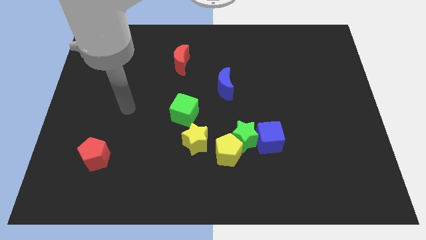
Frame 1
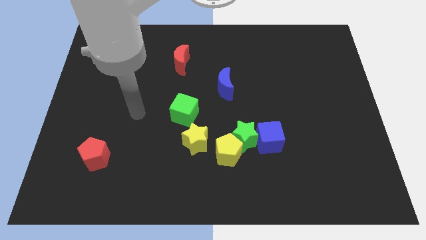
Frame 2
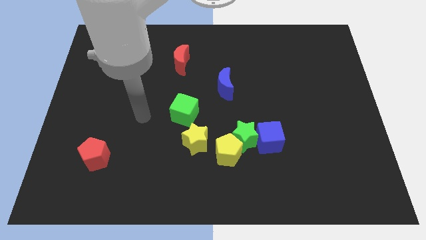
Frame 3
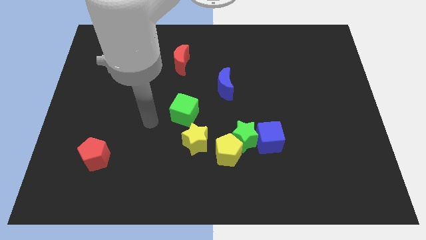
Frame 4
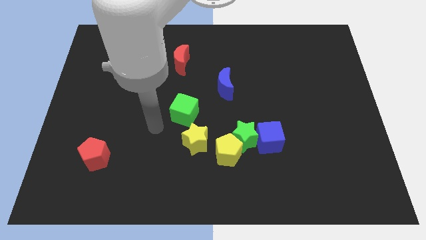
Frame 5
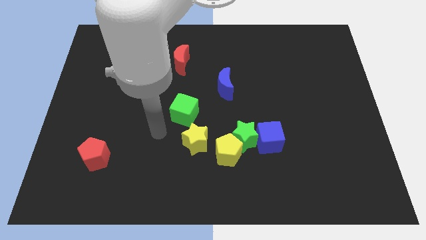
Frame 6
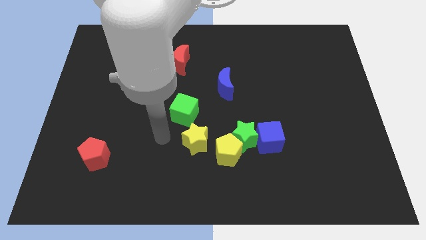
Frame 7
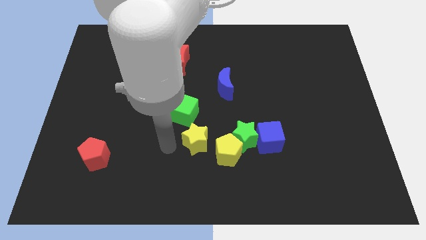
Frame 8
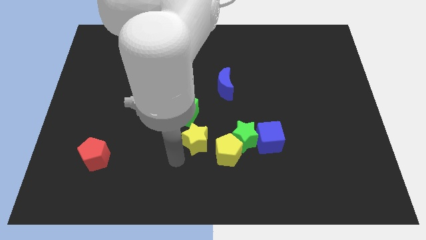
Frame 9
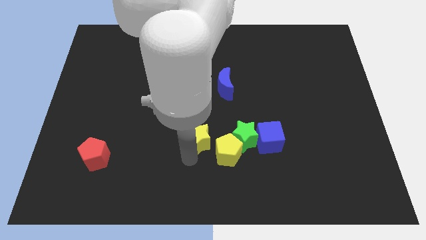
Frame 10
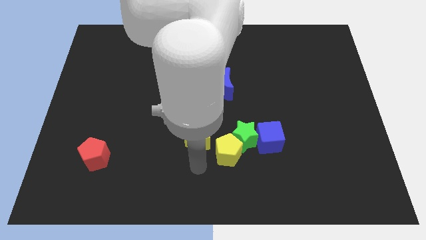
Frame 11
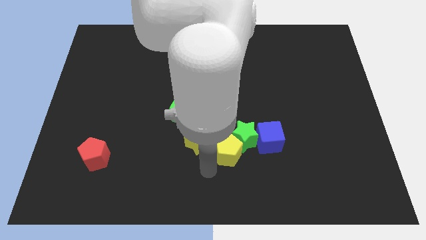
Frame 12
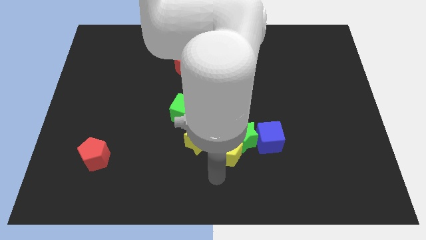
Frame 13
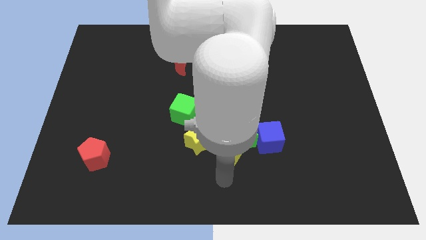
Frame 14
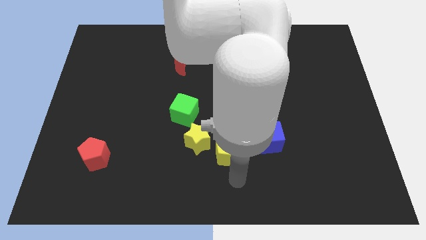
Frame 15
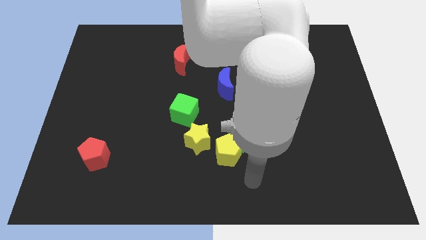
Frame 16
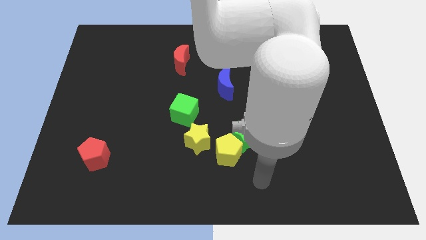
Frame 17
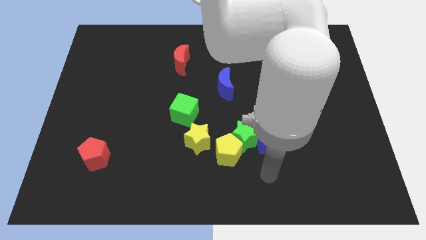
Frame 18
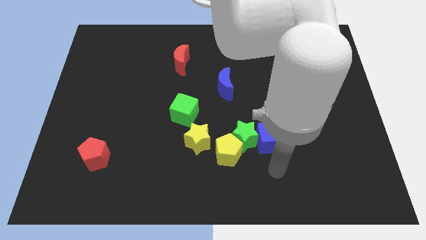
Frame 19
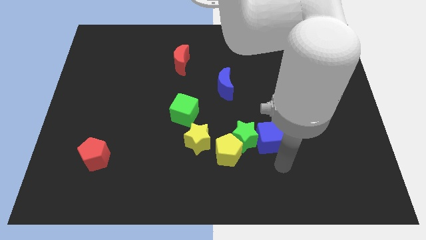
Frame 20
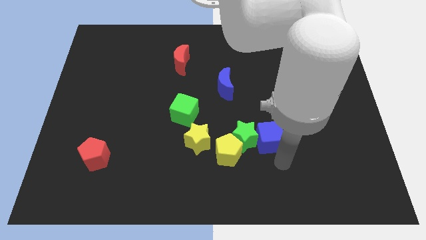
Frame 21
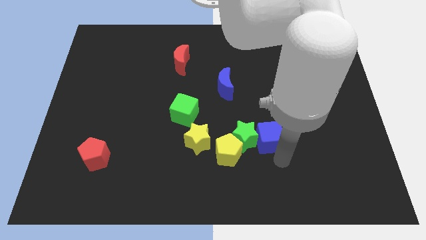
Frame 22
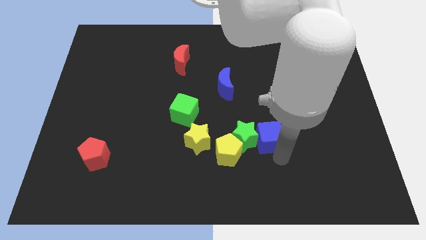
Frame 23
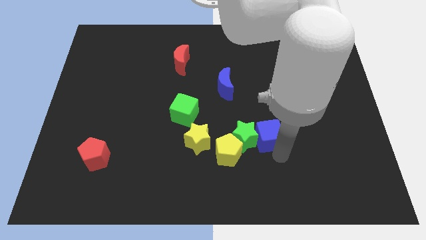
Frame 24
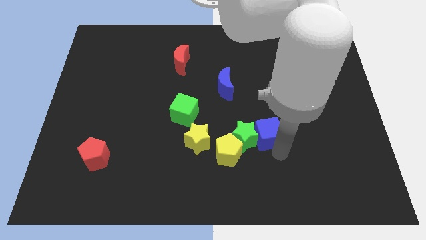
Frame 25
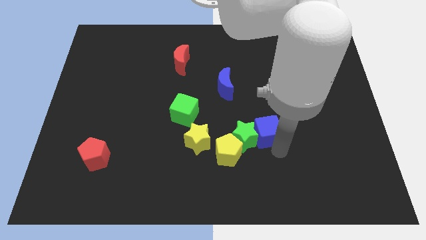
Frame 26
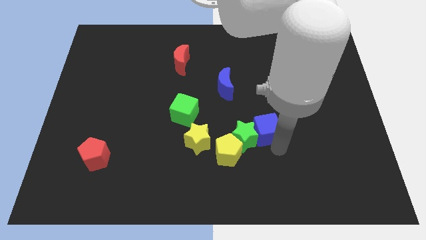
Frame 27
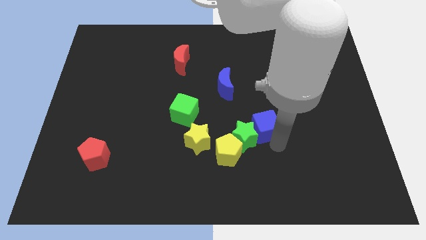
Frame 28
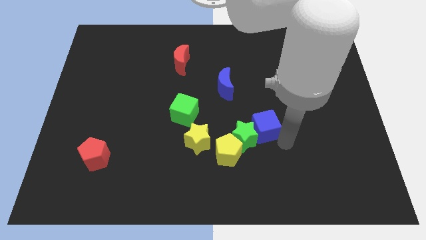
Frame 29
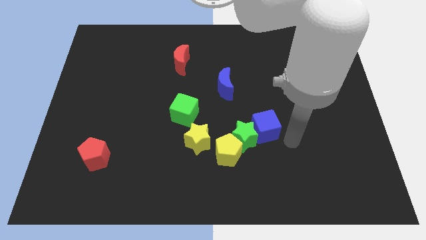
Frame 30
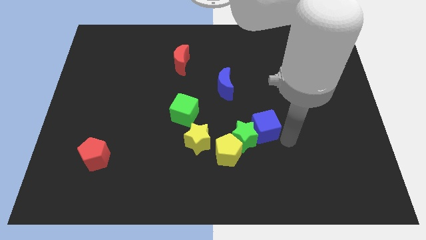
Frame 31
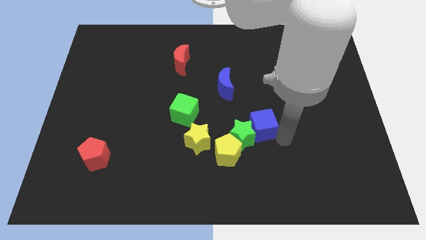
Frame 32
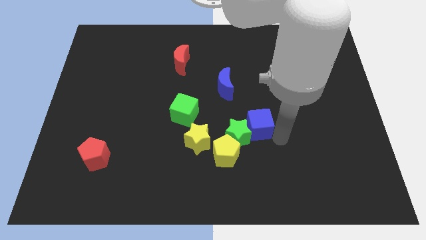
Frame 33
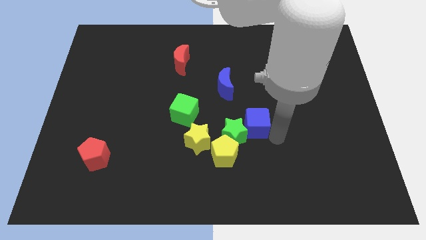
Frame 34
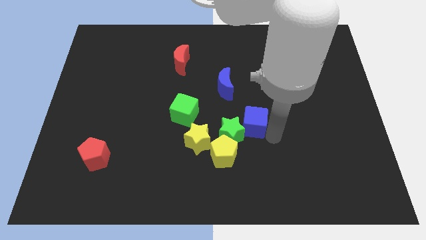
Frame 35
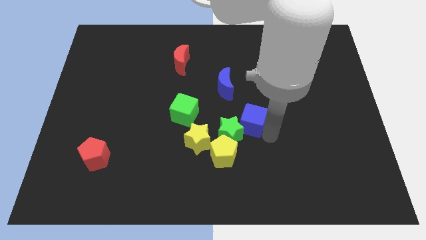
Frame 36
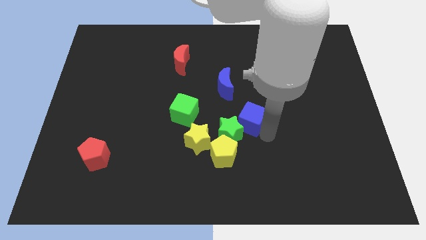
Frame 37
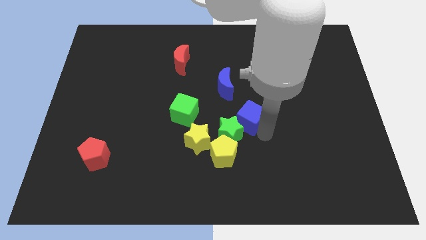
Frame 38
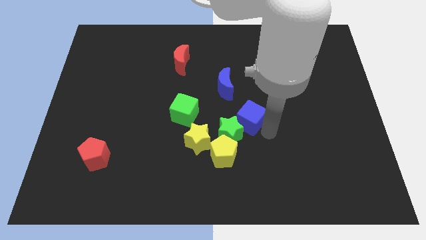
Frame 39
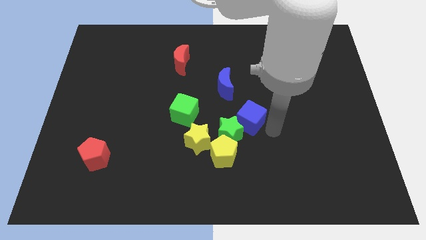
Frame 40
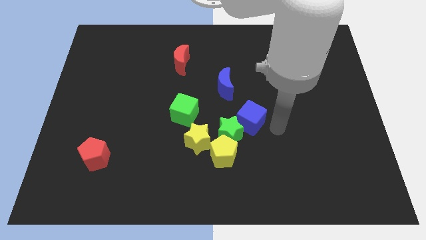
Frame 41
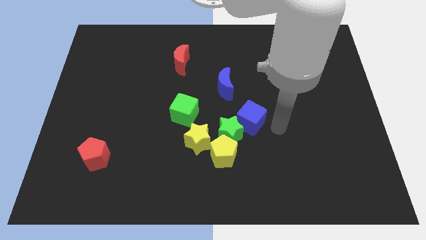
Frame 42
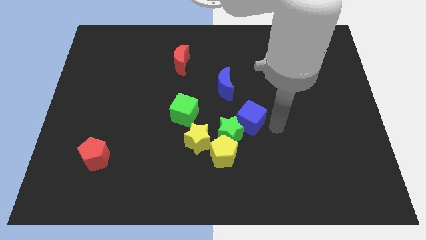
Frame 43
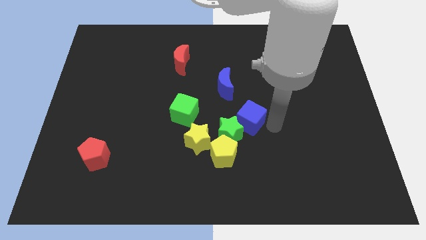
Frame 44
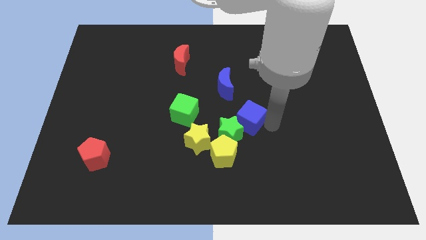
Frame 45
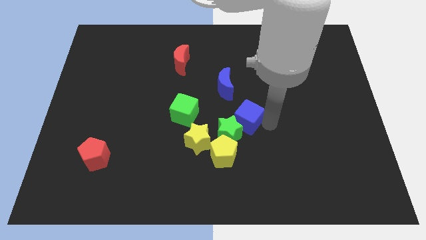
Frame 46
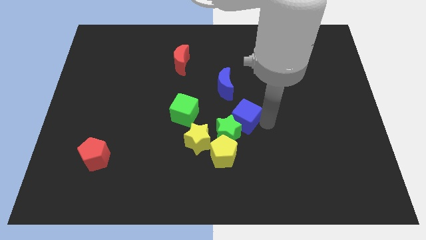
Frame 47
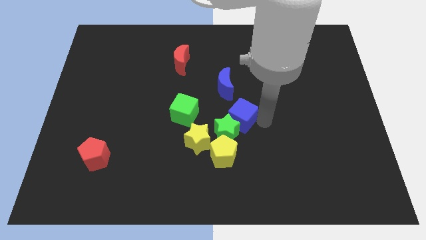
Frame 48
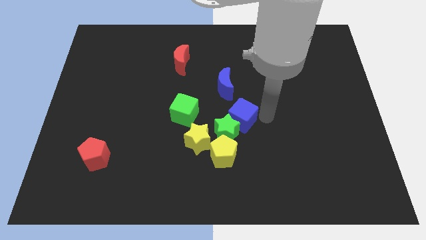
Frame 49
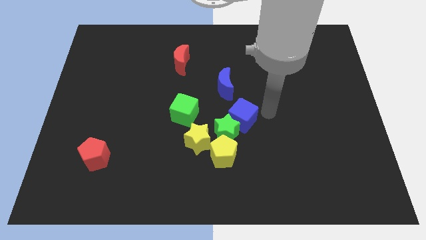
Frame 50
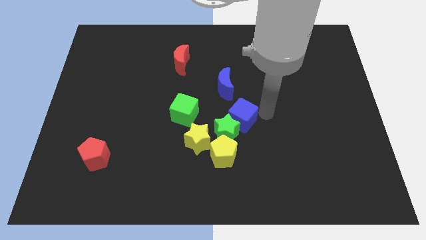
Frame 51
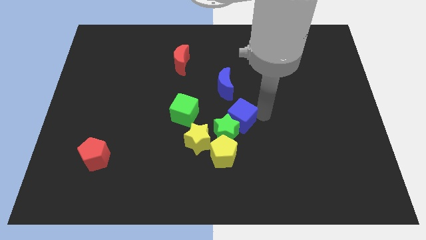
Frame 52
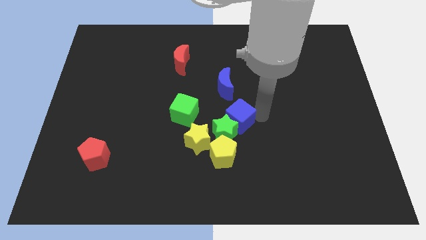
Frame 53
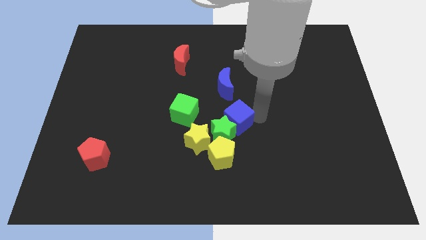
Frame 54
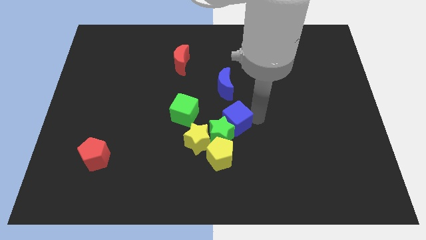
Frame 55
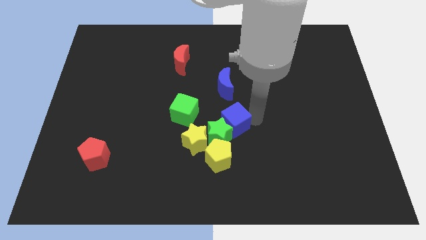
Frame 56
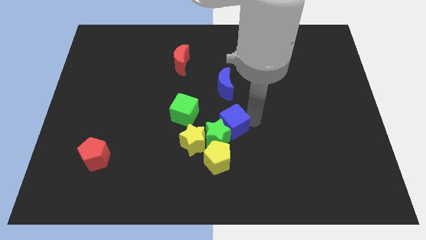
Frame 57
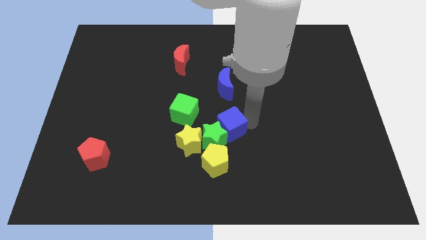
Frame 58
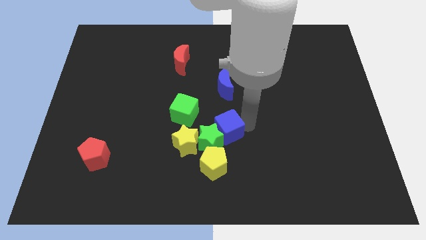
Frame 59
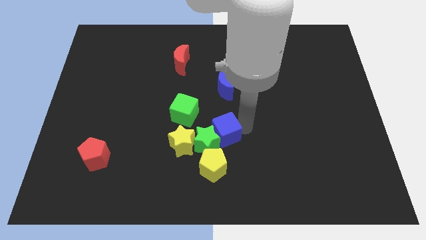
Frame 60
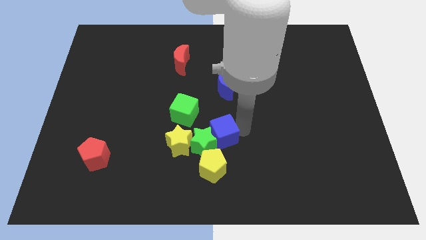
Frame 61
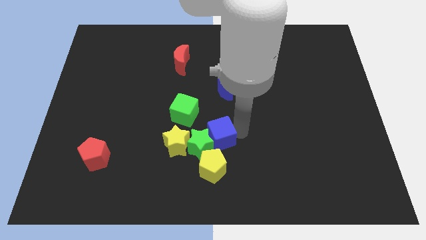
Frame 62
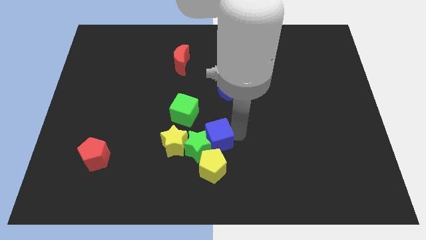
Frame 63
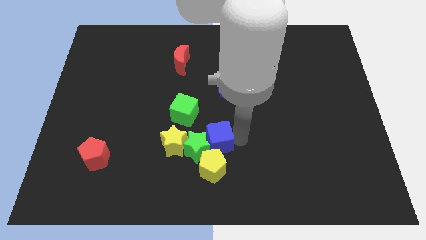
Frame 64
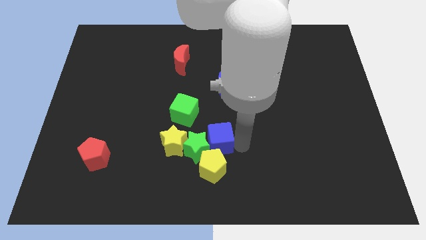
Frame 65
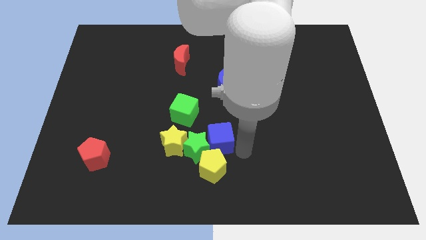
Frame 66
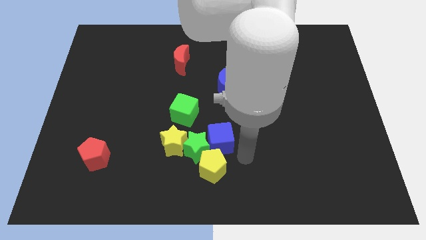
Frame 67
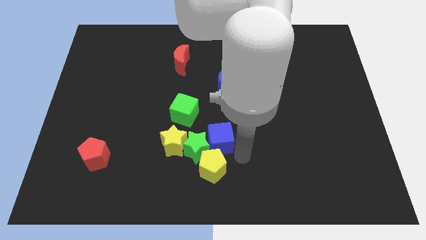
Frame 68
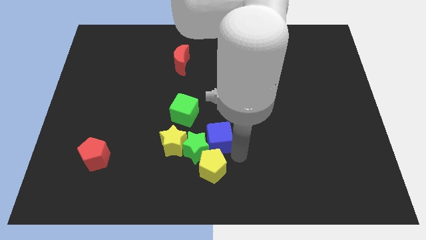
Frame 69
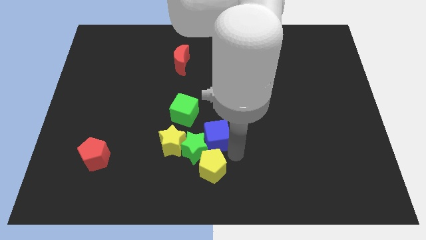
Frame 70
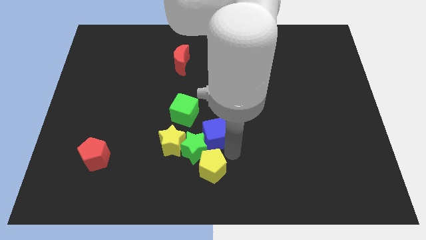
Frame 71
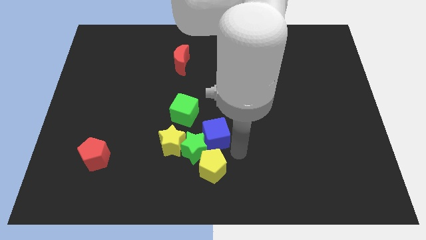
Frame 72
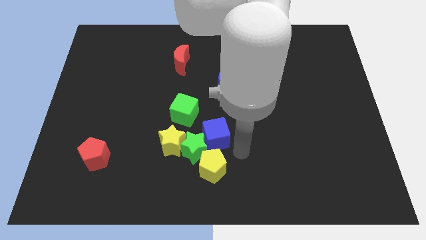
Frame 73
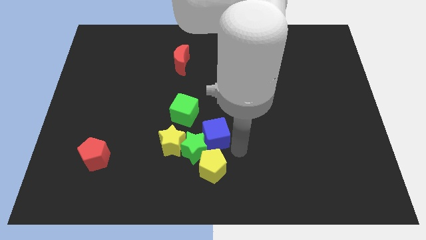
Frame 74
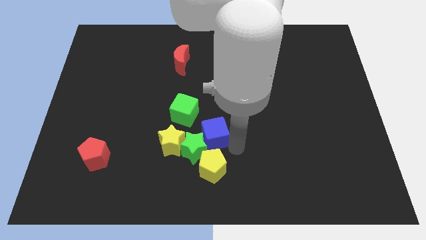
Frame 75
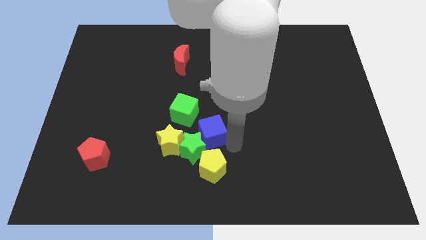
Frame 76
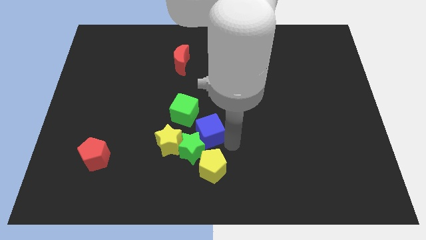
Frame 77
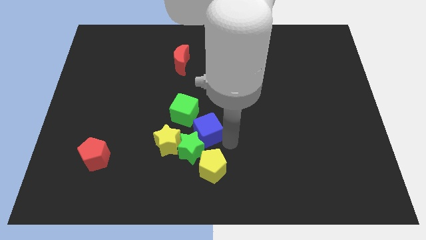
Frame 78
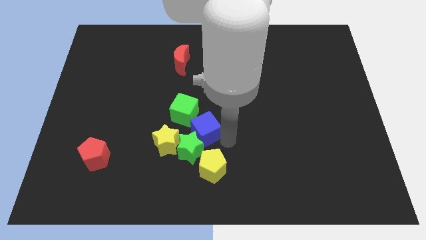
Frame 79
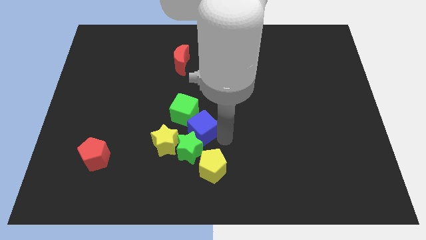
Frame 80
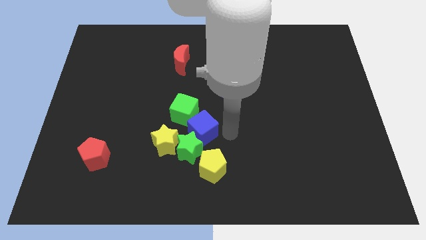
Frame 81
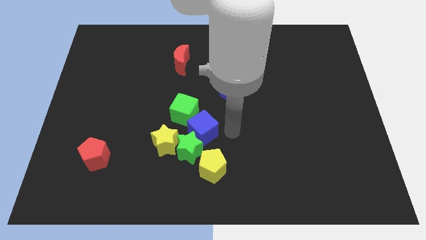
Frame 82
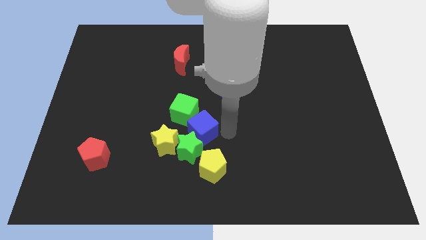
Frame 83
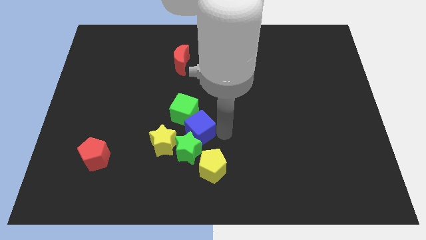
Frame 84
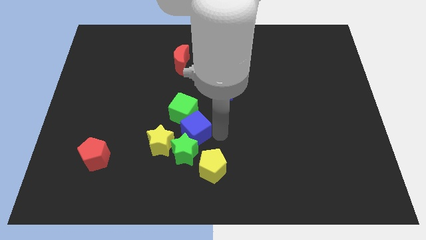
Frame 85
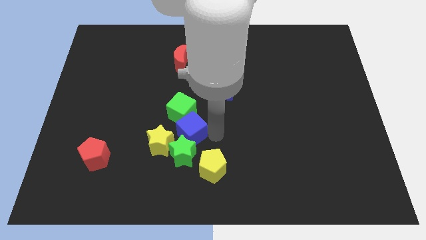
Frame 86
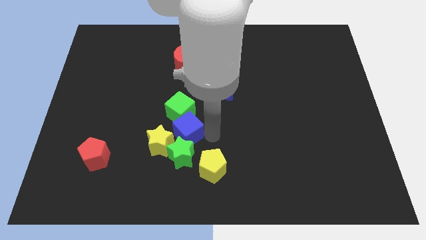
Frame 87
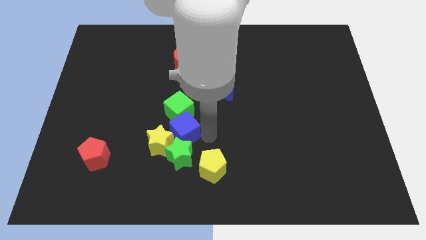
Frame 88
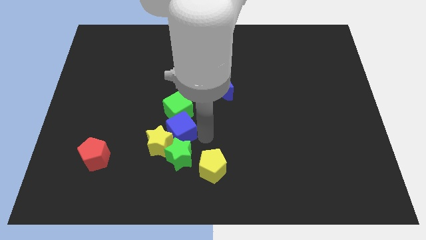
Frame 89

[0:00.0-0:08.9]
slide the blue cube diagonally down and to the left of the green cube
